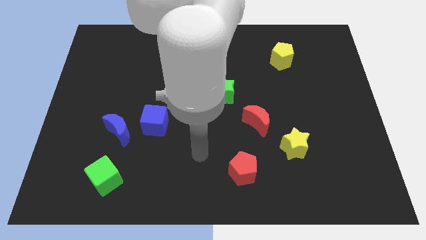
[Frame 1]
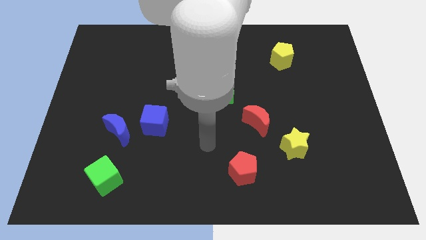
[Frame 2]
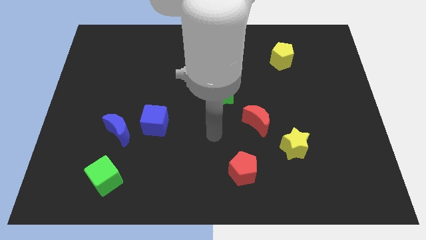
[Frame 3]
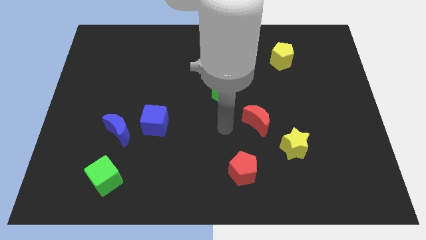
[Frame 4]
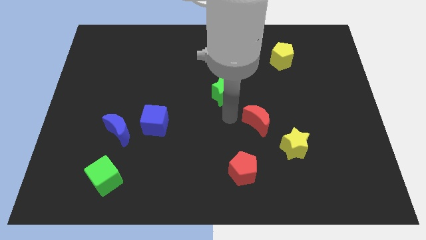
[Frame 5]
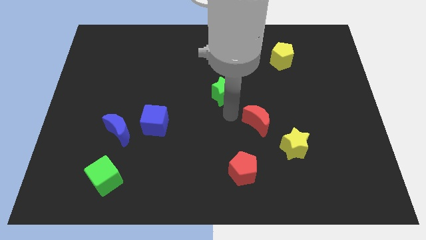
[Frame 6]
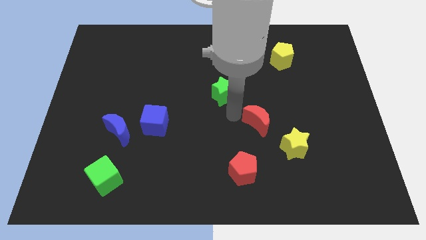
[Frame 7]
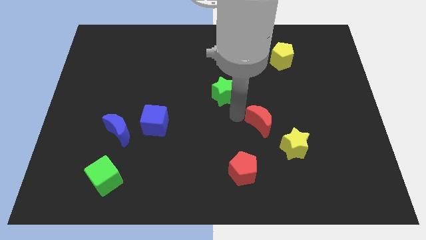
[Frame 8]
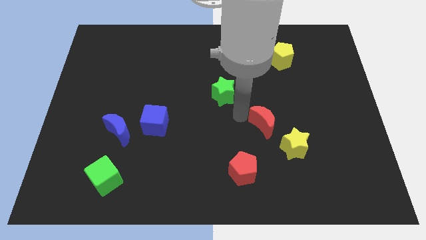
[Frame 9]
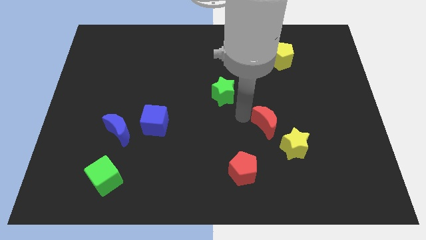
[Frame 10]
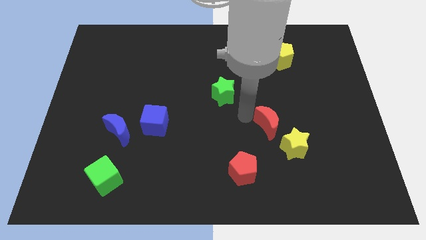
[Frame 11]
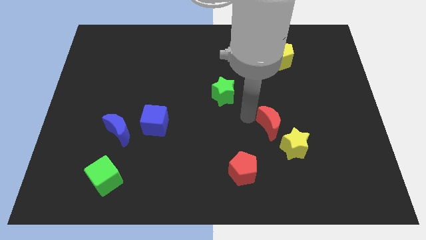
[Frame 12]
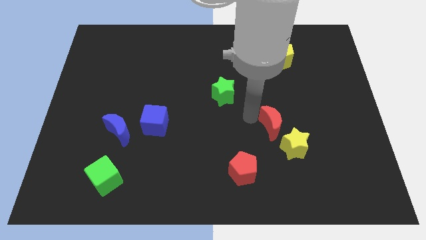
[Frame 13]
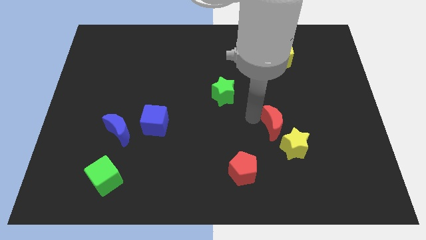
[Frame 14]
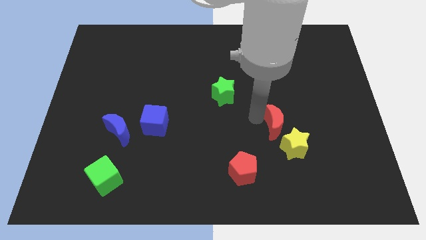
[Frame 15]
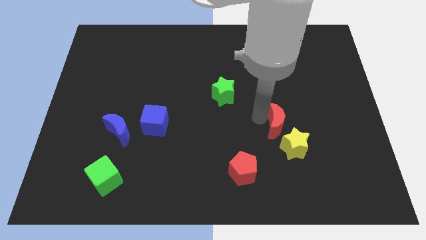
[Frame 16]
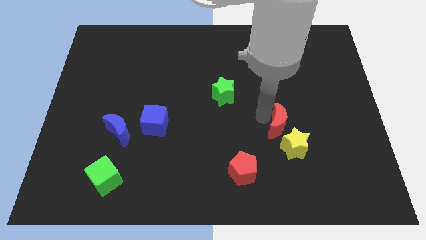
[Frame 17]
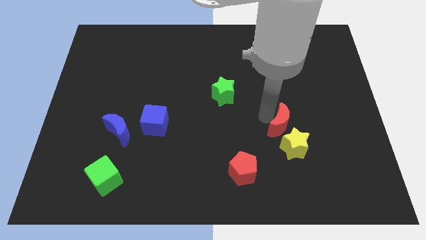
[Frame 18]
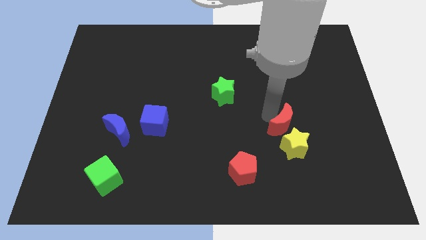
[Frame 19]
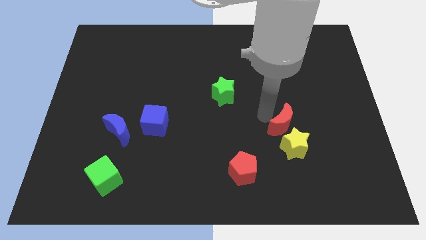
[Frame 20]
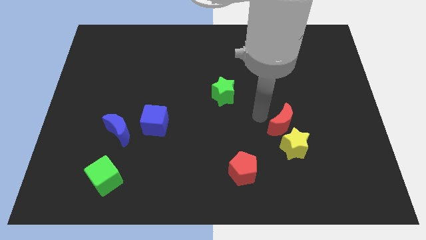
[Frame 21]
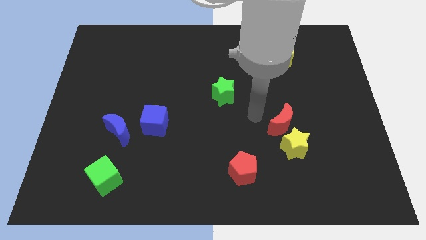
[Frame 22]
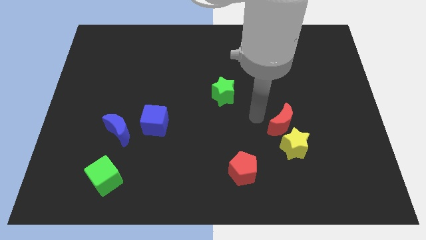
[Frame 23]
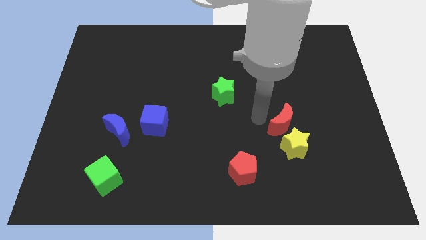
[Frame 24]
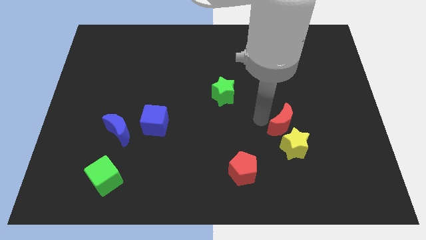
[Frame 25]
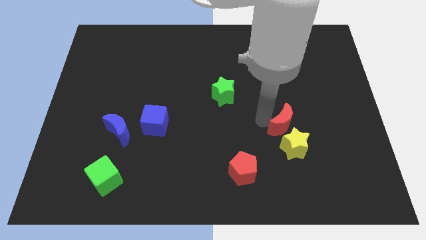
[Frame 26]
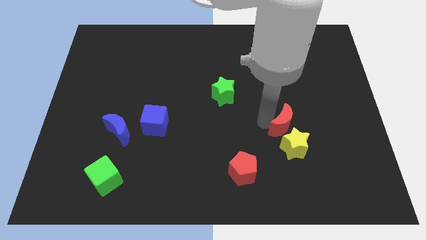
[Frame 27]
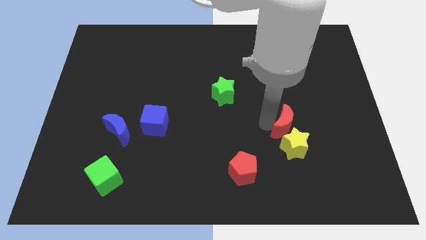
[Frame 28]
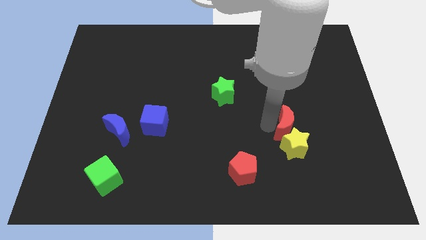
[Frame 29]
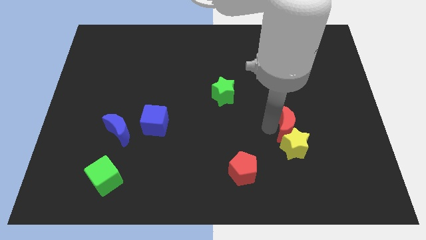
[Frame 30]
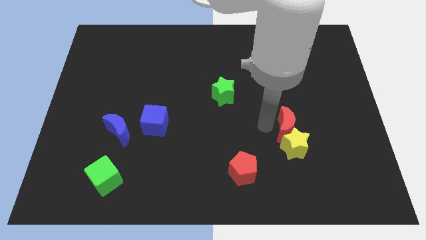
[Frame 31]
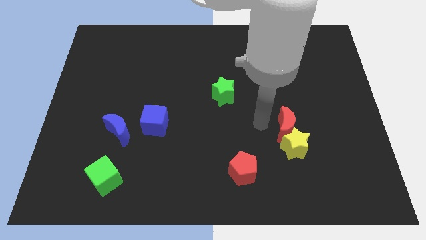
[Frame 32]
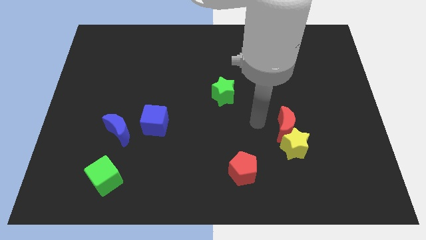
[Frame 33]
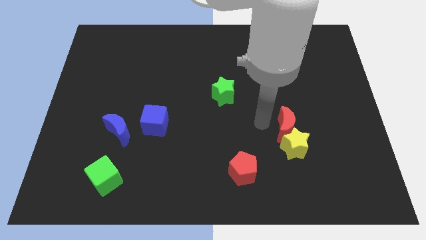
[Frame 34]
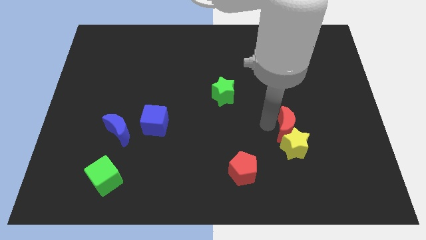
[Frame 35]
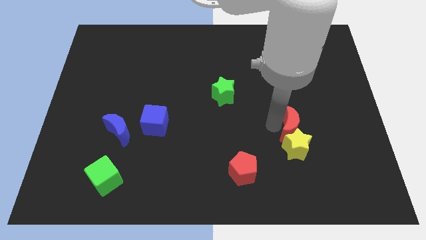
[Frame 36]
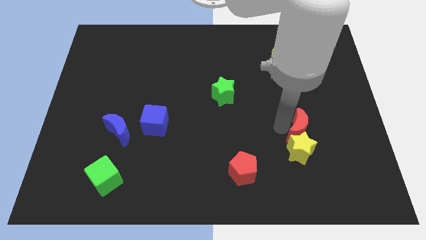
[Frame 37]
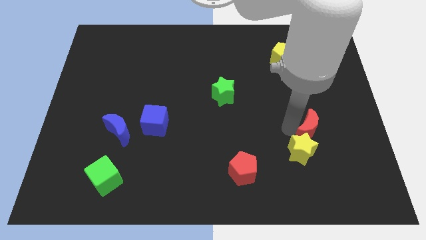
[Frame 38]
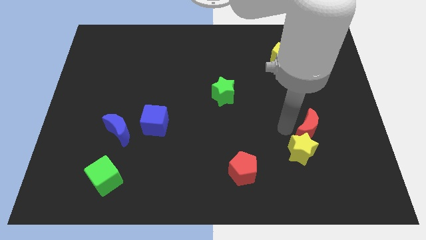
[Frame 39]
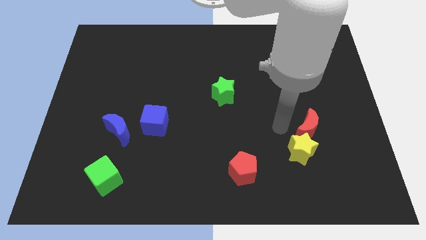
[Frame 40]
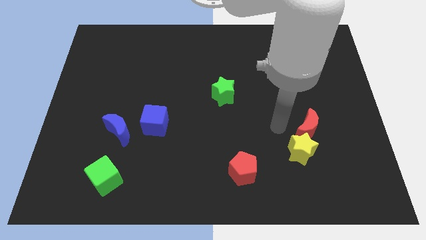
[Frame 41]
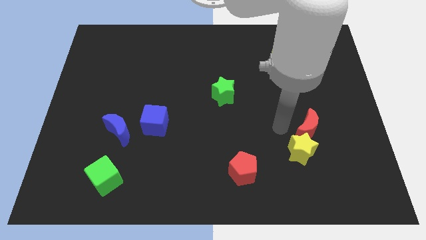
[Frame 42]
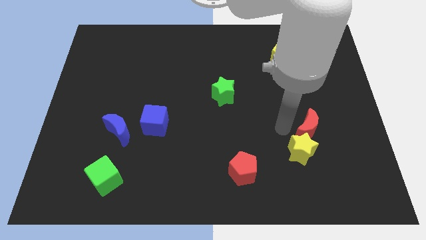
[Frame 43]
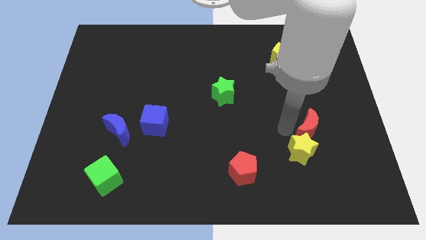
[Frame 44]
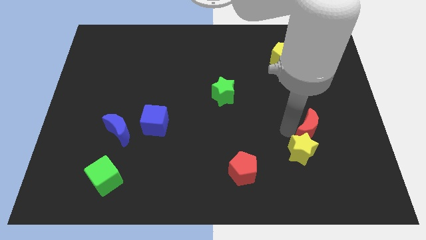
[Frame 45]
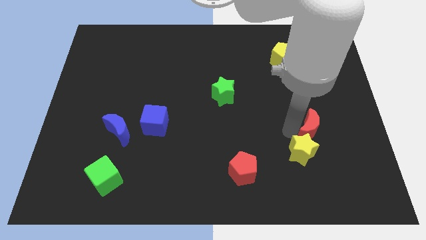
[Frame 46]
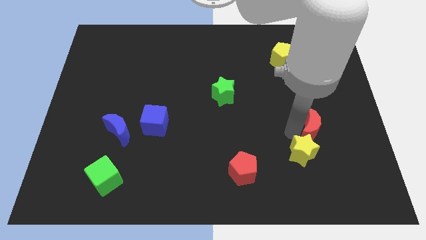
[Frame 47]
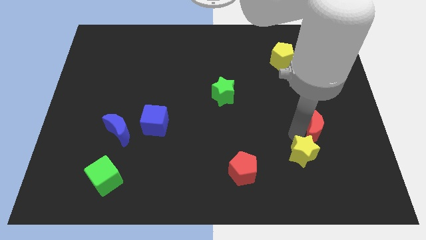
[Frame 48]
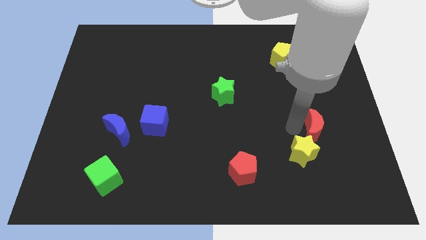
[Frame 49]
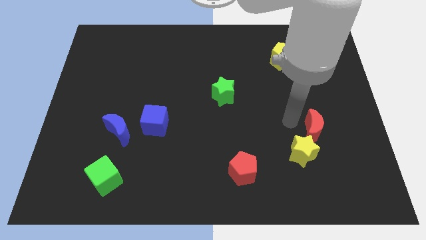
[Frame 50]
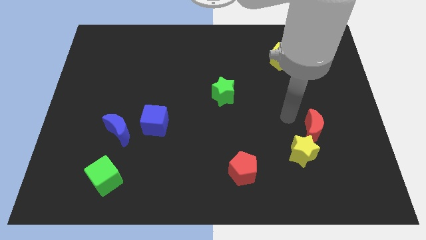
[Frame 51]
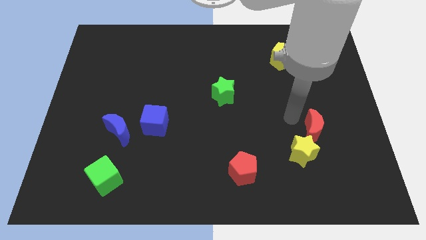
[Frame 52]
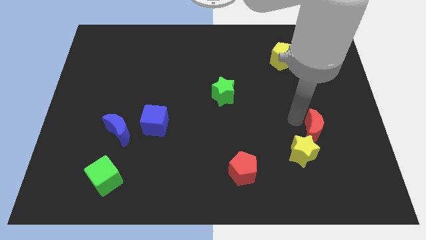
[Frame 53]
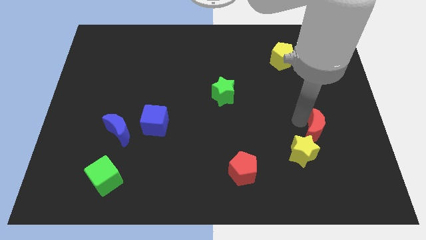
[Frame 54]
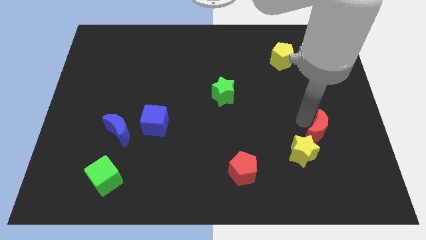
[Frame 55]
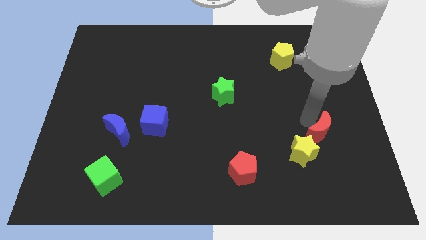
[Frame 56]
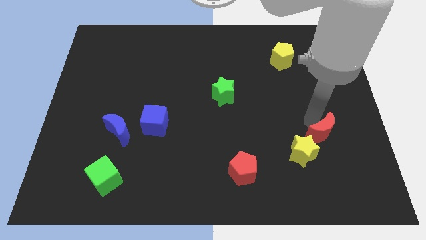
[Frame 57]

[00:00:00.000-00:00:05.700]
slide the red moon just right of the yellow star

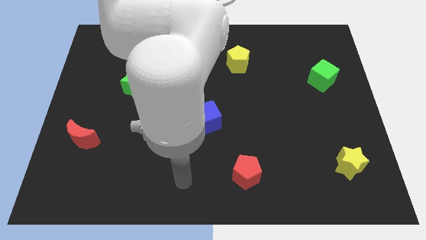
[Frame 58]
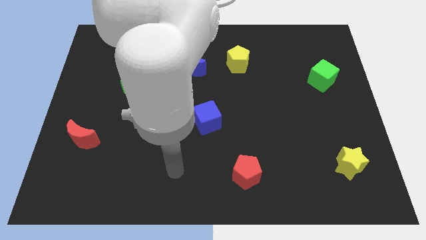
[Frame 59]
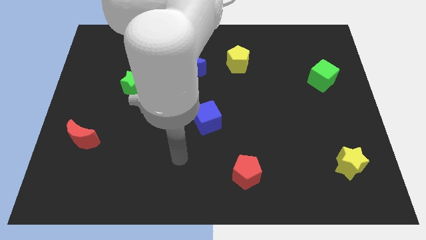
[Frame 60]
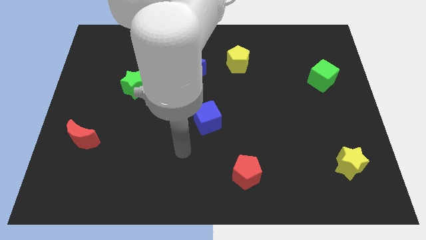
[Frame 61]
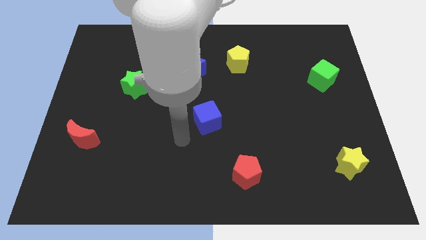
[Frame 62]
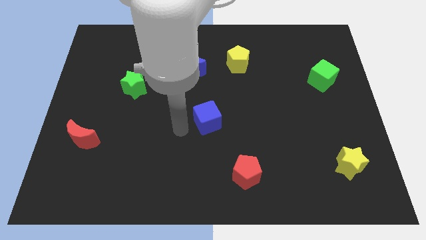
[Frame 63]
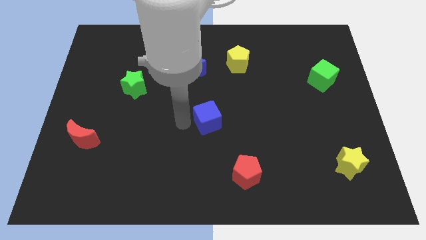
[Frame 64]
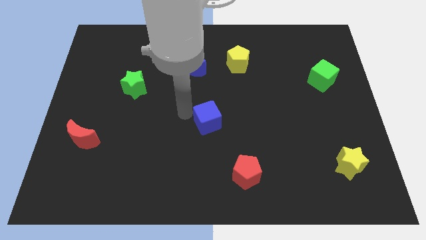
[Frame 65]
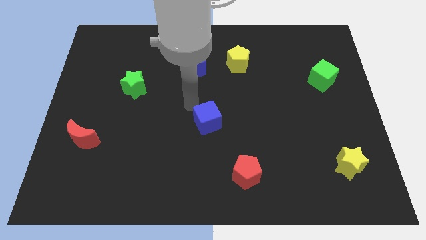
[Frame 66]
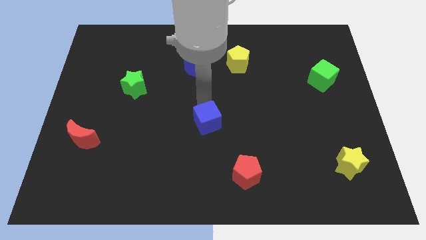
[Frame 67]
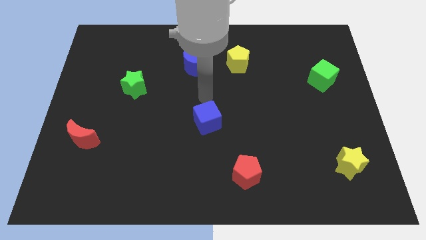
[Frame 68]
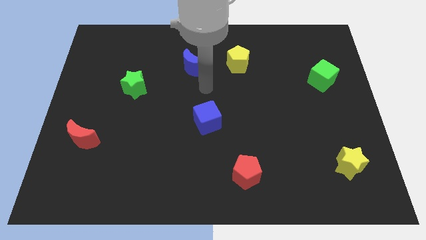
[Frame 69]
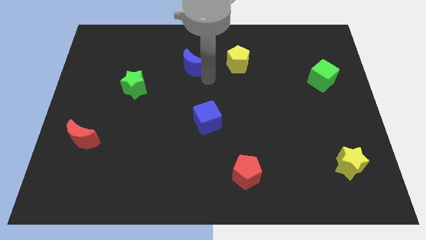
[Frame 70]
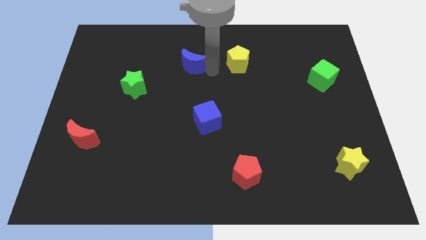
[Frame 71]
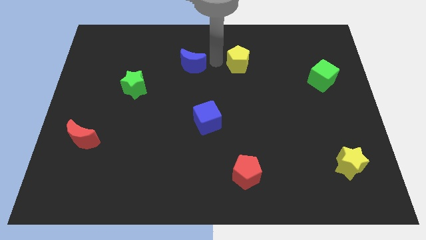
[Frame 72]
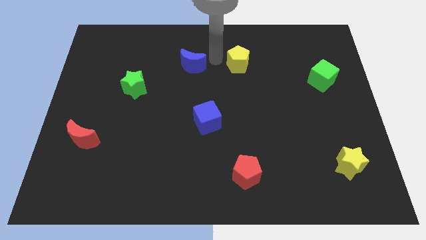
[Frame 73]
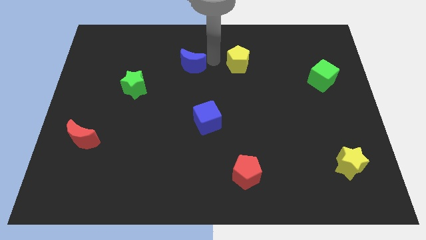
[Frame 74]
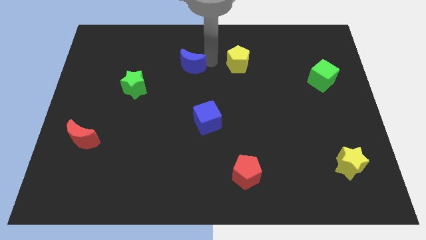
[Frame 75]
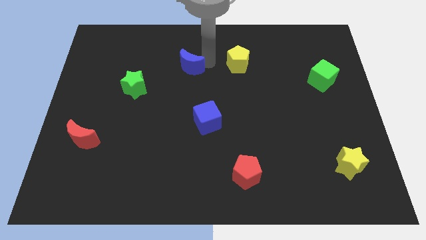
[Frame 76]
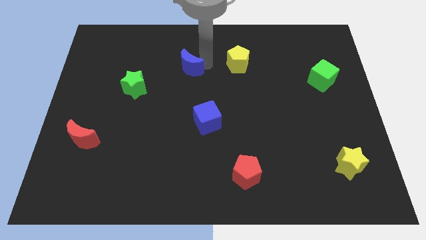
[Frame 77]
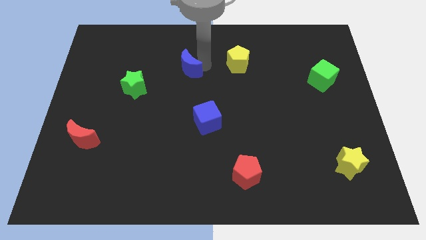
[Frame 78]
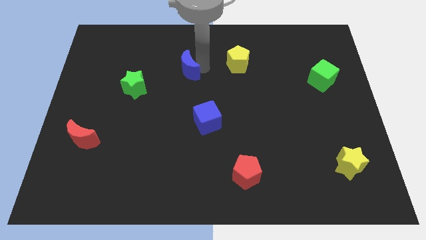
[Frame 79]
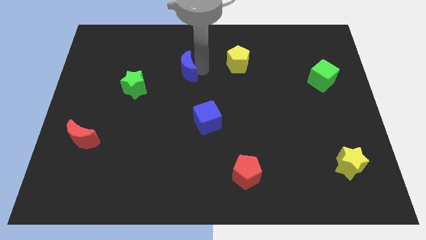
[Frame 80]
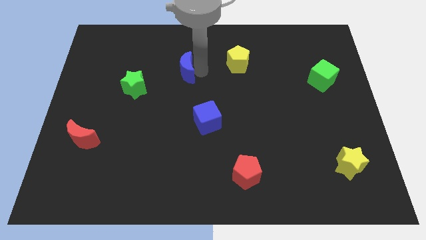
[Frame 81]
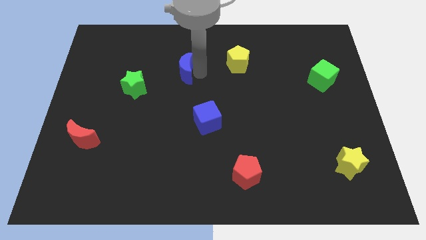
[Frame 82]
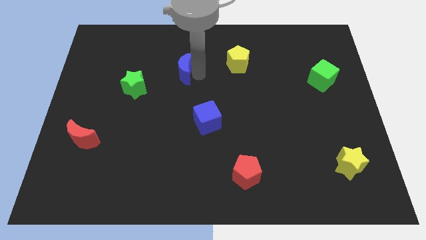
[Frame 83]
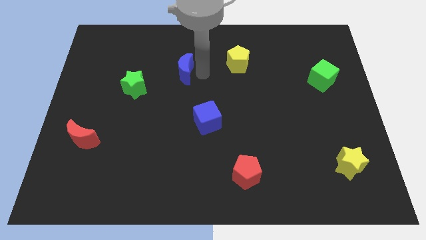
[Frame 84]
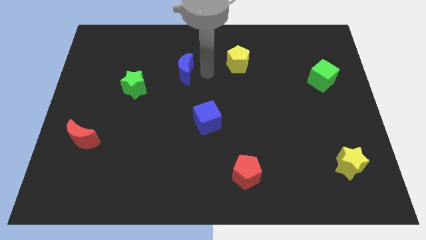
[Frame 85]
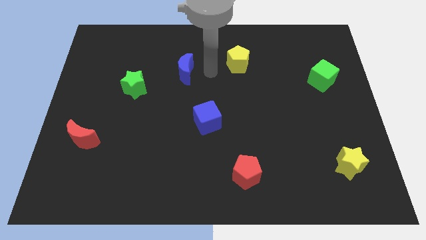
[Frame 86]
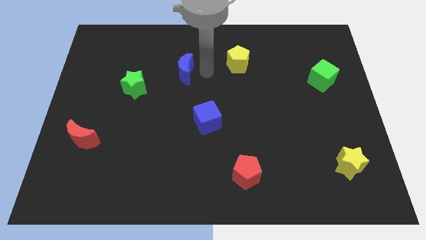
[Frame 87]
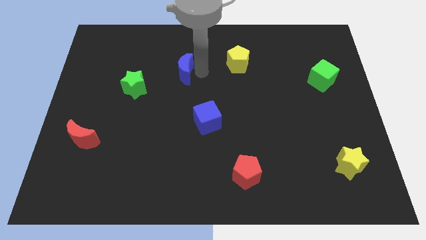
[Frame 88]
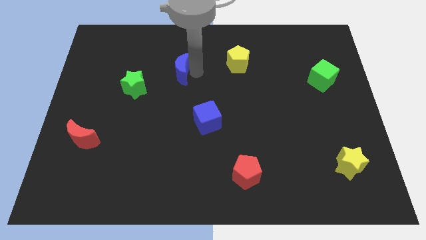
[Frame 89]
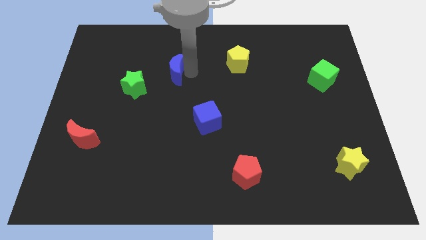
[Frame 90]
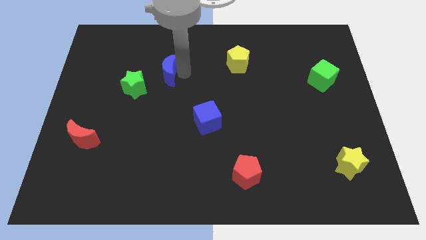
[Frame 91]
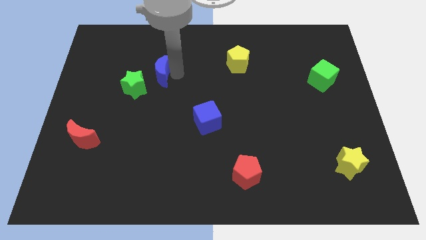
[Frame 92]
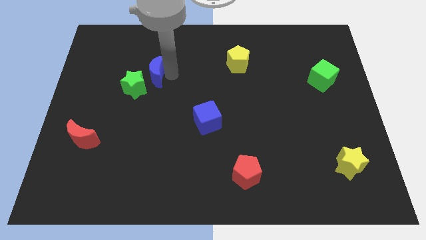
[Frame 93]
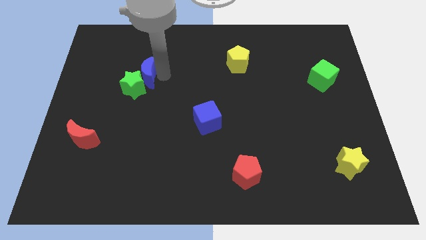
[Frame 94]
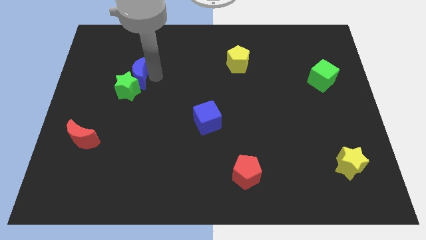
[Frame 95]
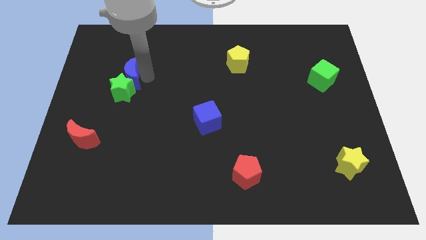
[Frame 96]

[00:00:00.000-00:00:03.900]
push the blue moon to the top left side of the green star
